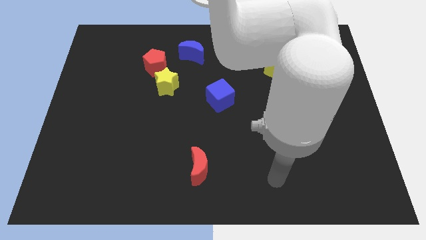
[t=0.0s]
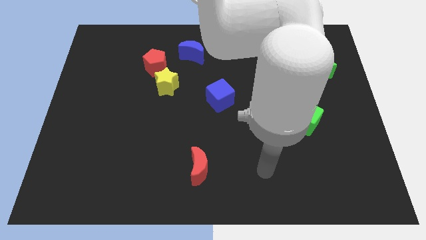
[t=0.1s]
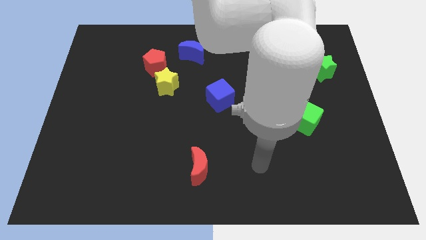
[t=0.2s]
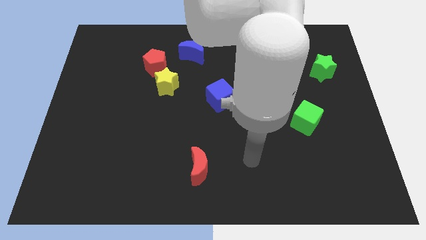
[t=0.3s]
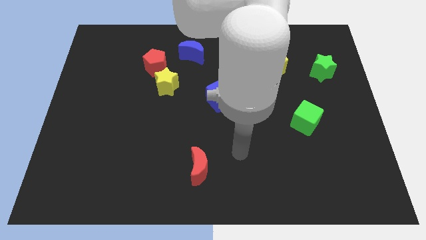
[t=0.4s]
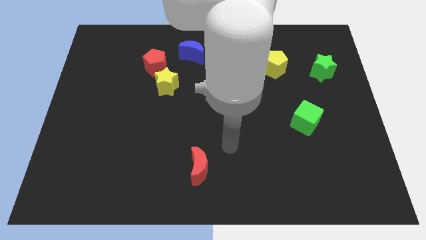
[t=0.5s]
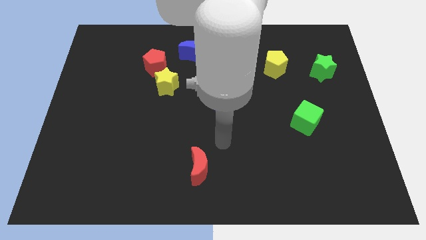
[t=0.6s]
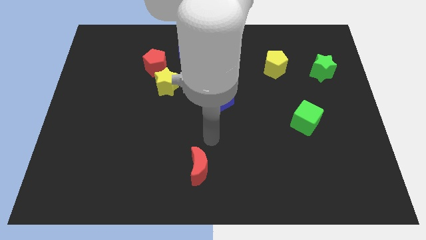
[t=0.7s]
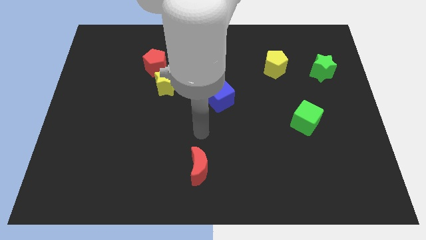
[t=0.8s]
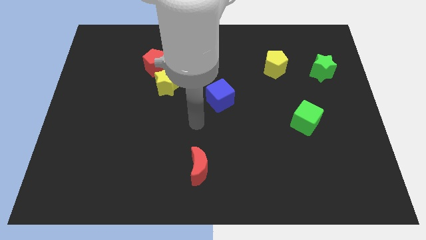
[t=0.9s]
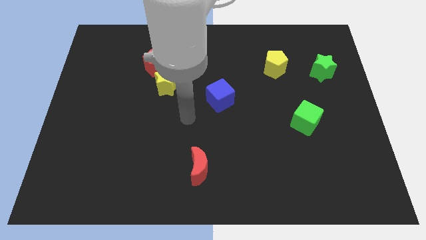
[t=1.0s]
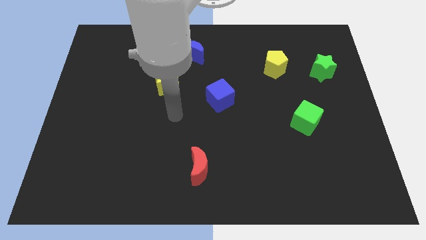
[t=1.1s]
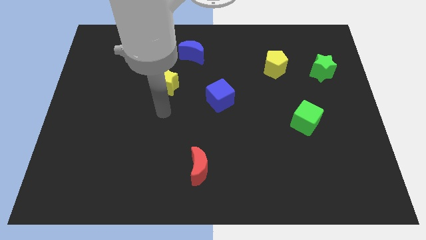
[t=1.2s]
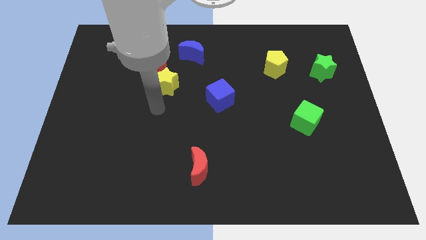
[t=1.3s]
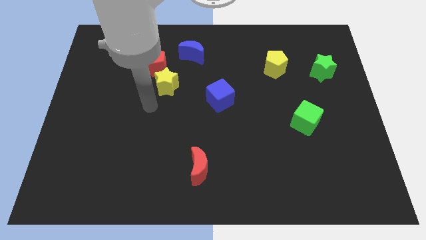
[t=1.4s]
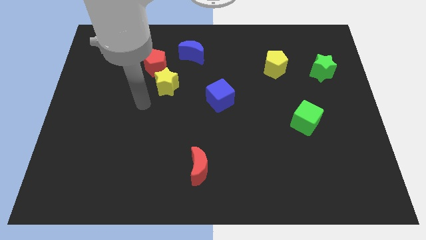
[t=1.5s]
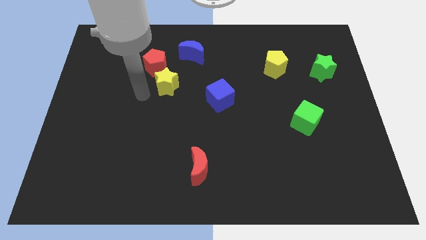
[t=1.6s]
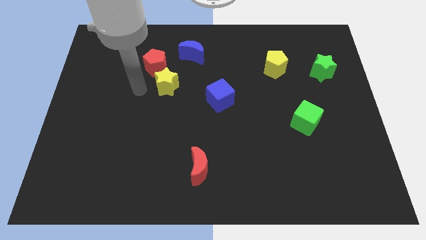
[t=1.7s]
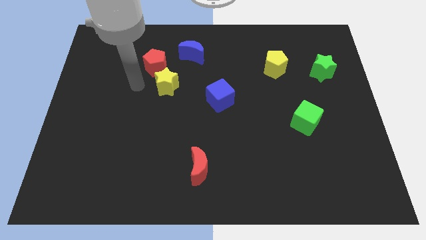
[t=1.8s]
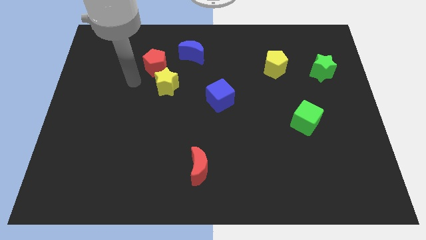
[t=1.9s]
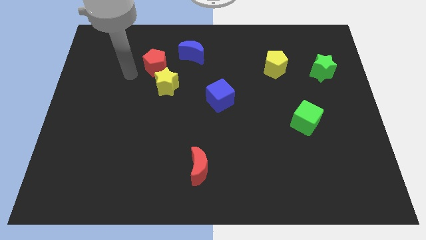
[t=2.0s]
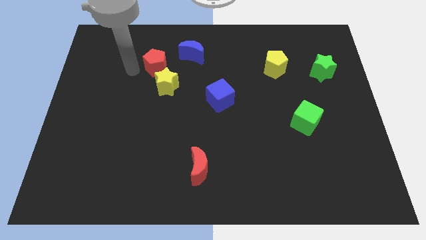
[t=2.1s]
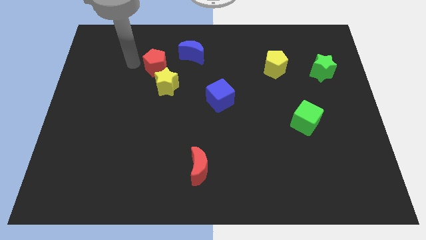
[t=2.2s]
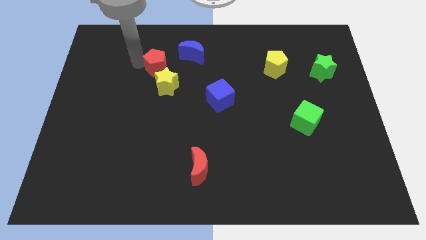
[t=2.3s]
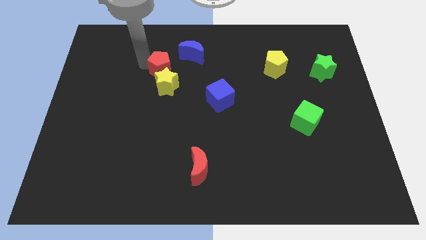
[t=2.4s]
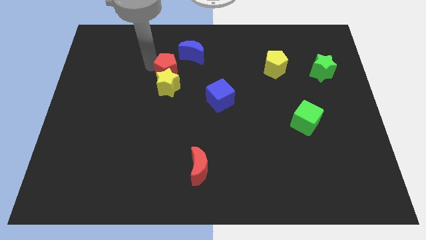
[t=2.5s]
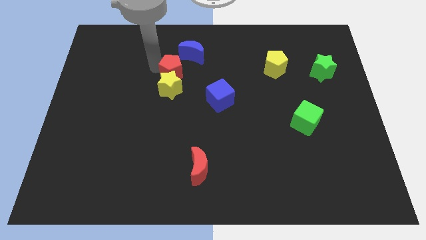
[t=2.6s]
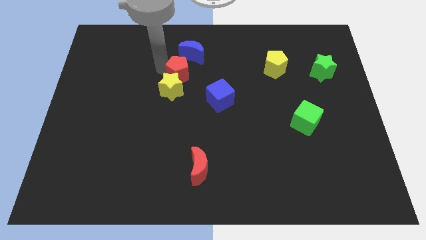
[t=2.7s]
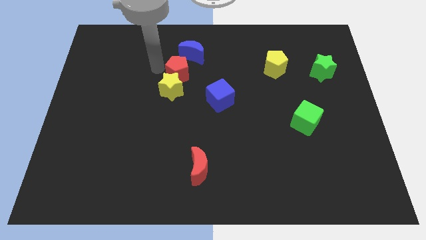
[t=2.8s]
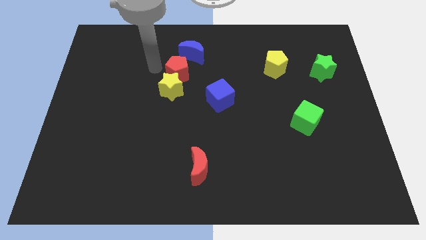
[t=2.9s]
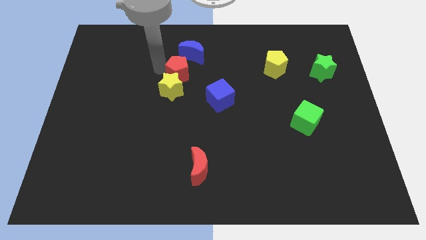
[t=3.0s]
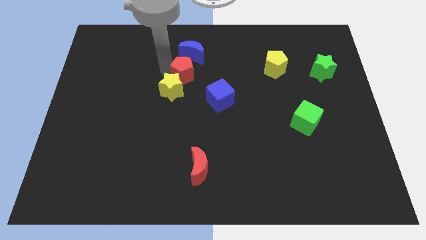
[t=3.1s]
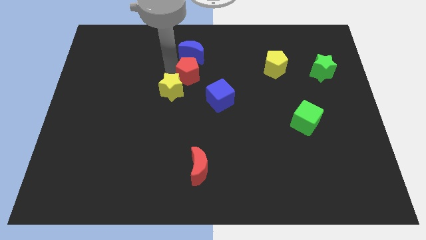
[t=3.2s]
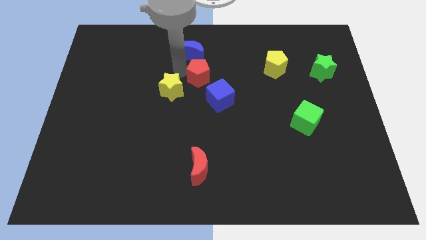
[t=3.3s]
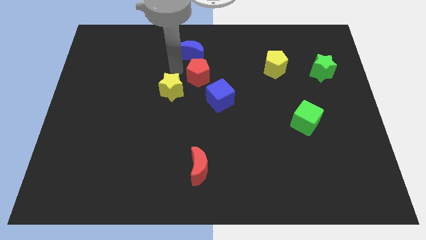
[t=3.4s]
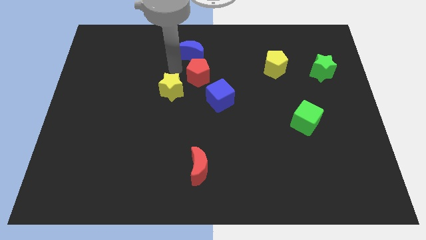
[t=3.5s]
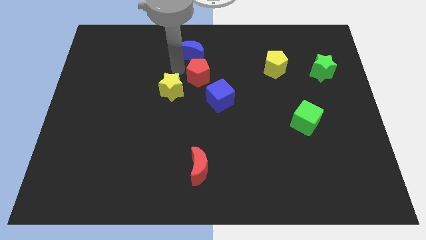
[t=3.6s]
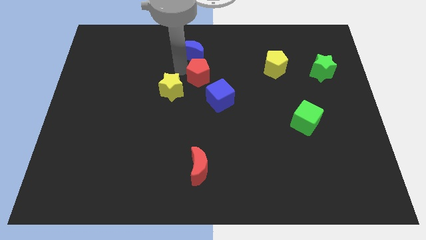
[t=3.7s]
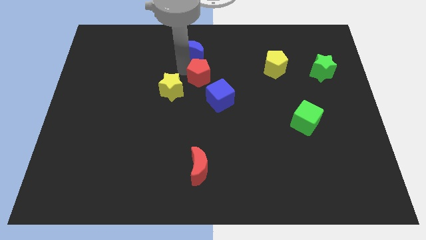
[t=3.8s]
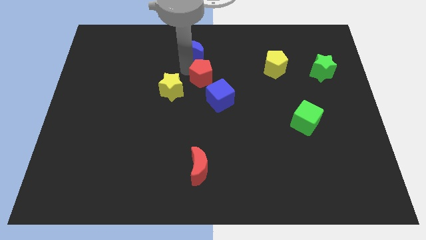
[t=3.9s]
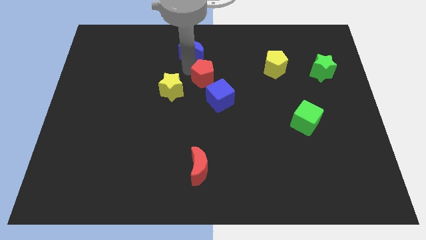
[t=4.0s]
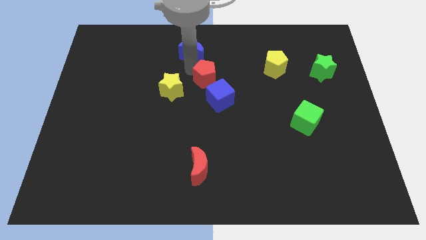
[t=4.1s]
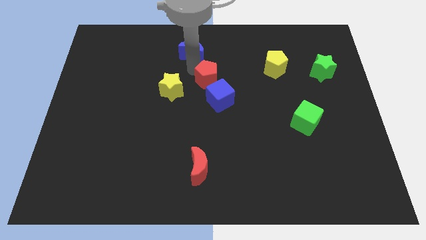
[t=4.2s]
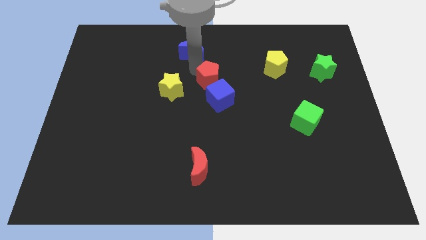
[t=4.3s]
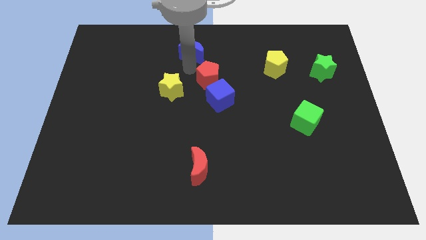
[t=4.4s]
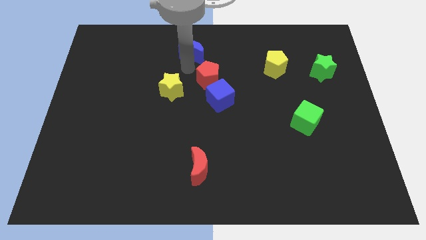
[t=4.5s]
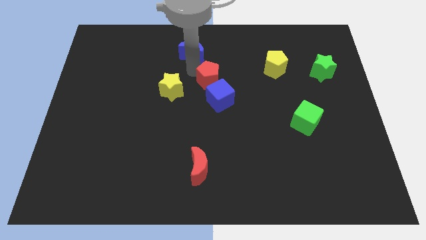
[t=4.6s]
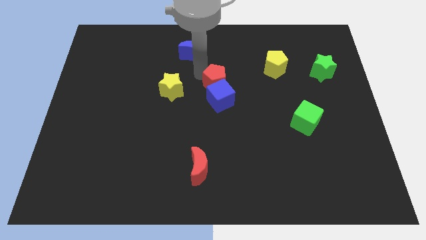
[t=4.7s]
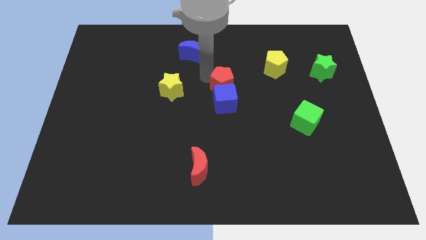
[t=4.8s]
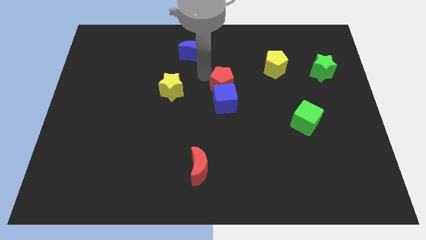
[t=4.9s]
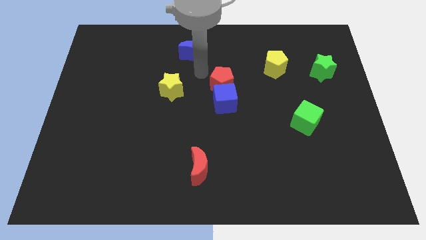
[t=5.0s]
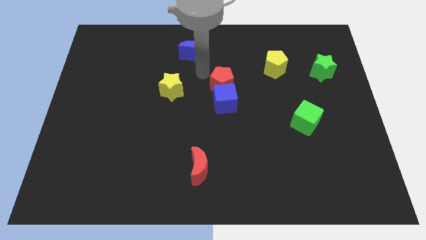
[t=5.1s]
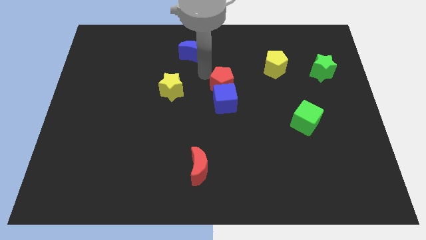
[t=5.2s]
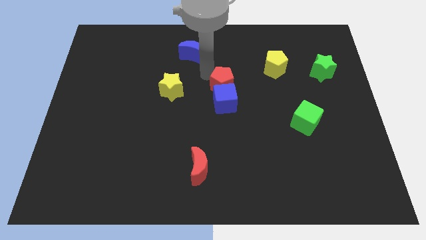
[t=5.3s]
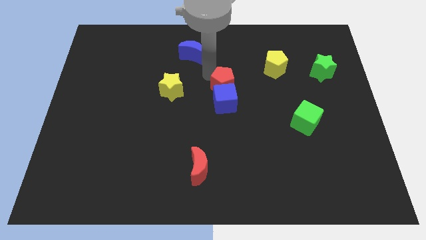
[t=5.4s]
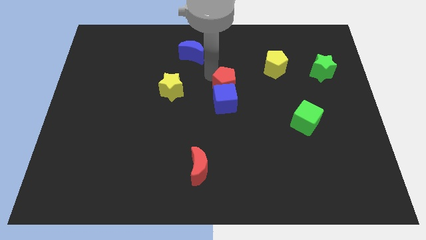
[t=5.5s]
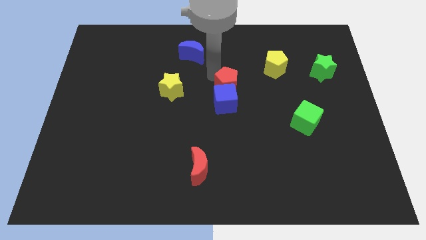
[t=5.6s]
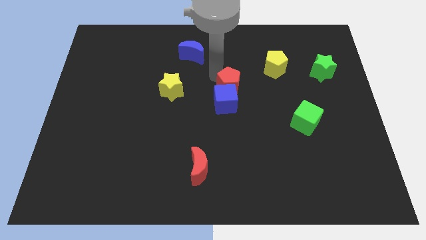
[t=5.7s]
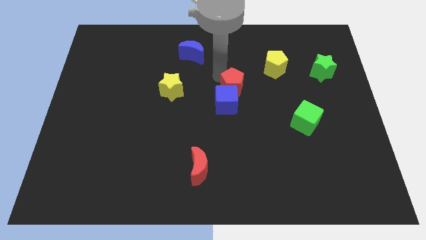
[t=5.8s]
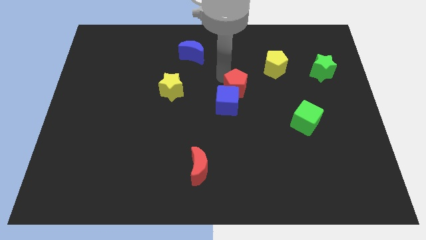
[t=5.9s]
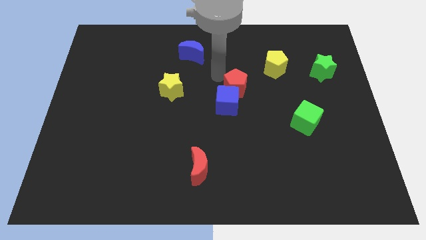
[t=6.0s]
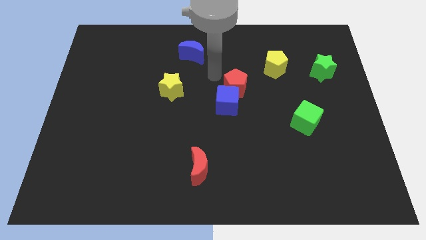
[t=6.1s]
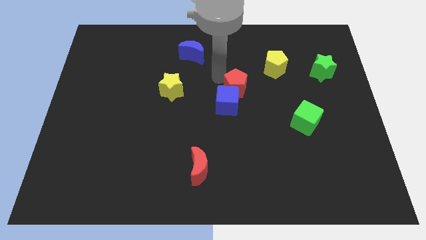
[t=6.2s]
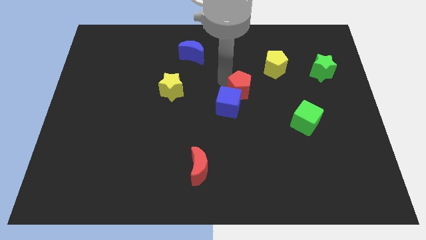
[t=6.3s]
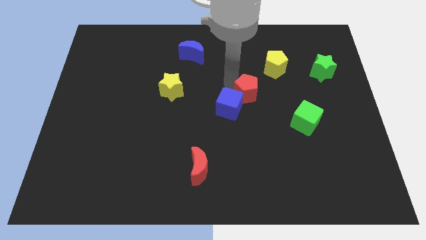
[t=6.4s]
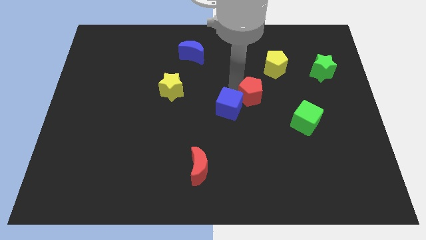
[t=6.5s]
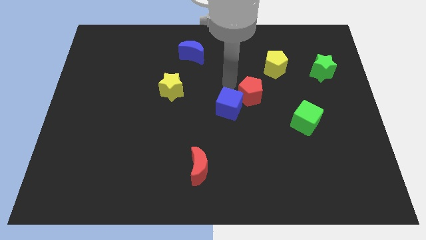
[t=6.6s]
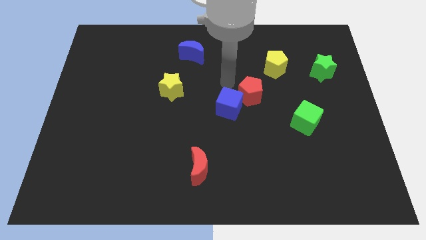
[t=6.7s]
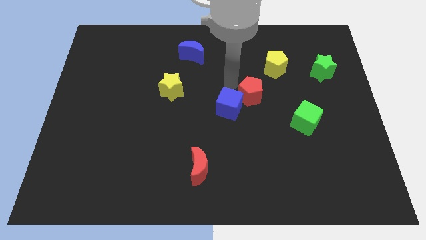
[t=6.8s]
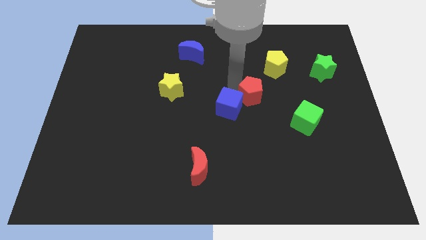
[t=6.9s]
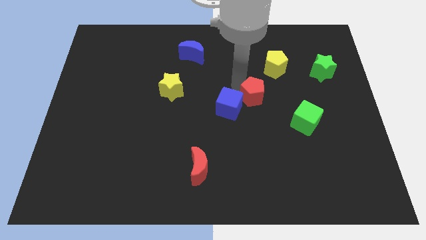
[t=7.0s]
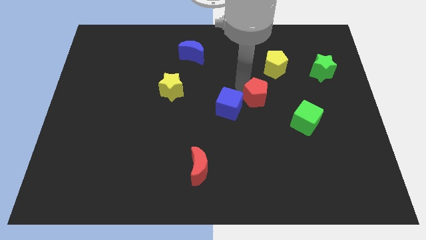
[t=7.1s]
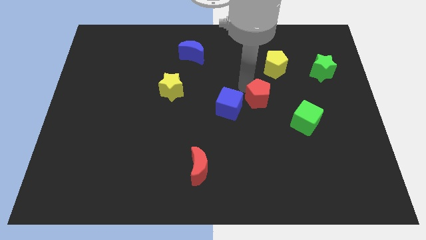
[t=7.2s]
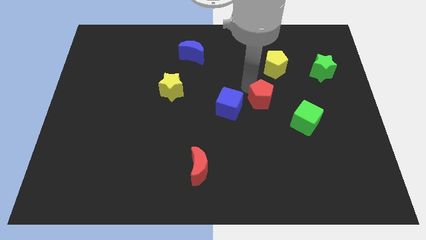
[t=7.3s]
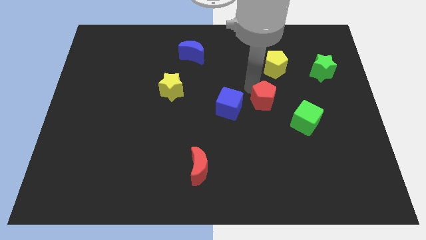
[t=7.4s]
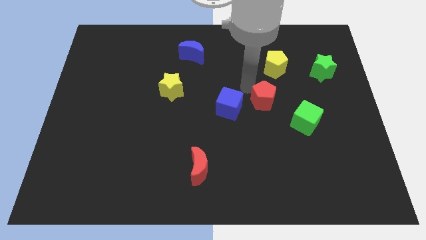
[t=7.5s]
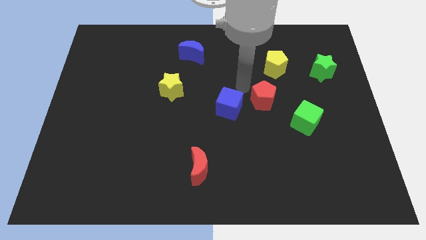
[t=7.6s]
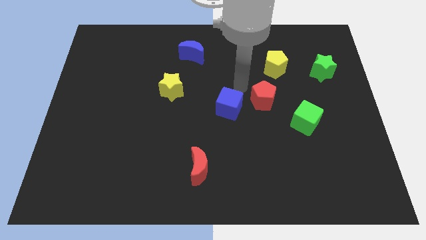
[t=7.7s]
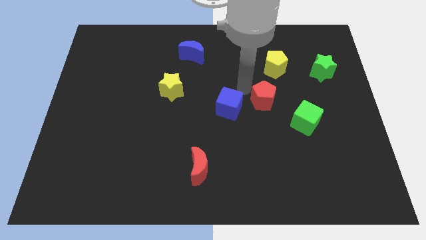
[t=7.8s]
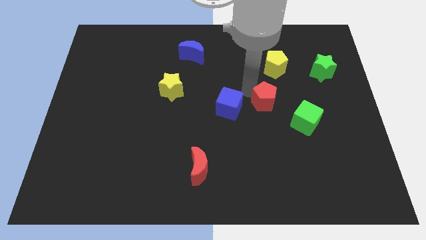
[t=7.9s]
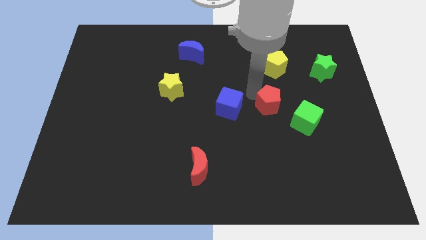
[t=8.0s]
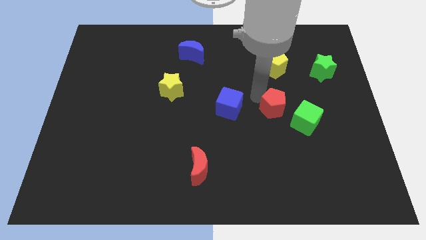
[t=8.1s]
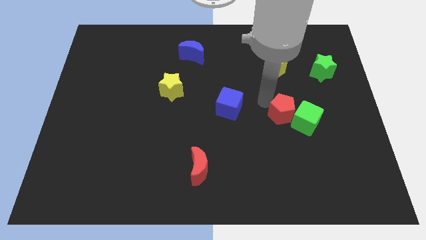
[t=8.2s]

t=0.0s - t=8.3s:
slide the red pentagon towards the green cube

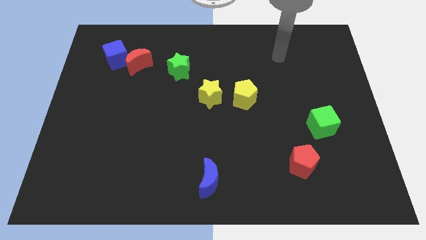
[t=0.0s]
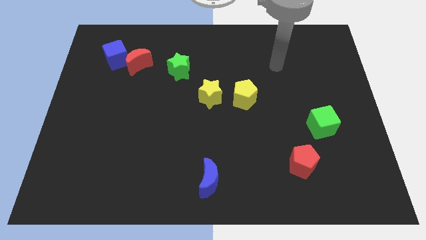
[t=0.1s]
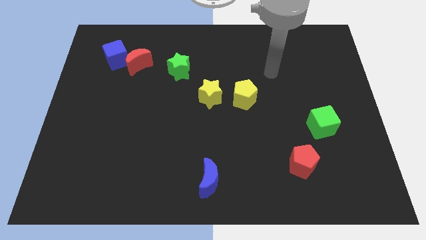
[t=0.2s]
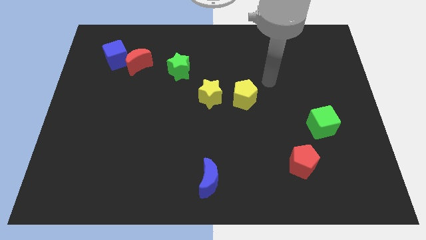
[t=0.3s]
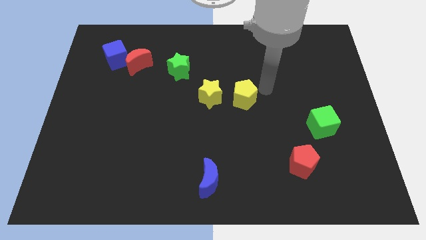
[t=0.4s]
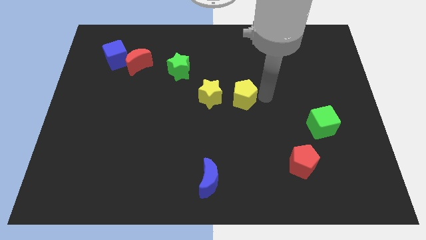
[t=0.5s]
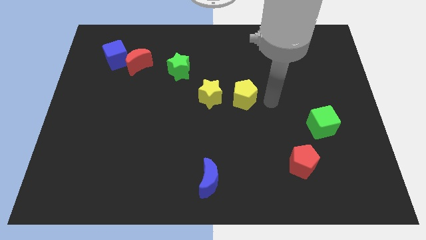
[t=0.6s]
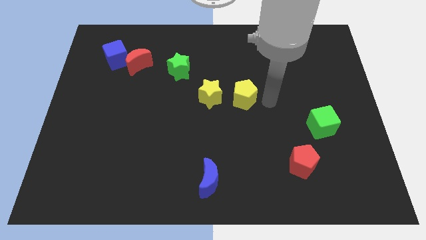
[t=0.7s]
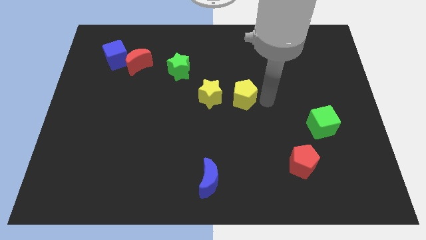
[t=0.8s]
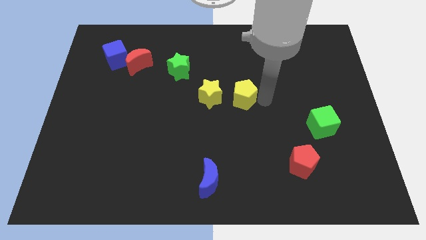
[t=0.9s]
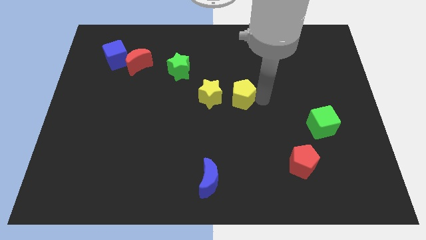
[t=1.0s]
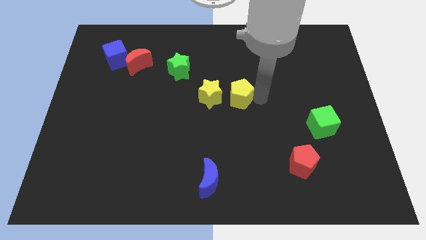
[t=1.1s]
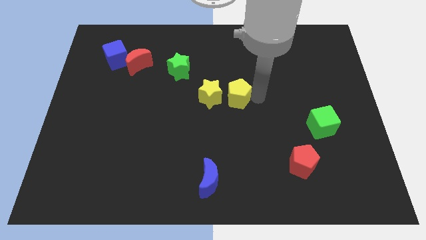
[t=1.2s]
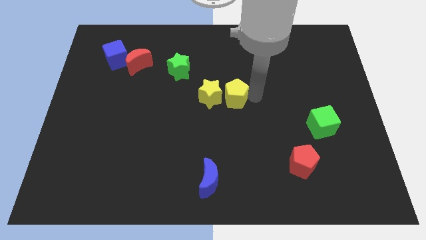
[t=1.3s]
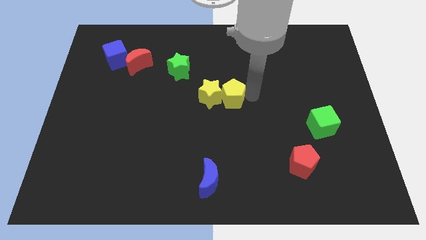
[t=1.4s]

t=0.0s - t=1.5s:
move the yellow pentagon close to the yellow star
